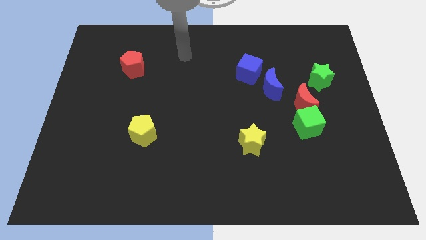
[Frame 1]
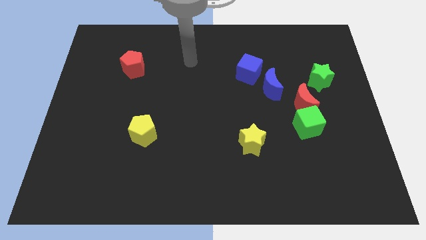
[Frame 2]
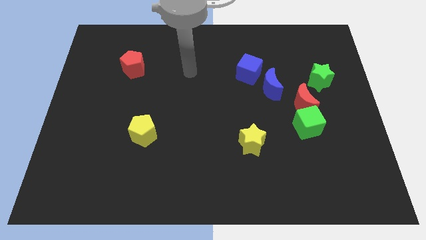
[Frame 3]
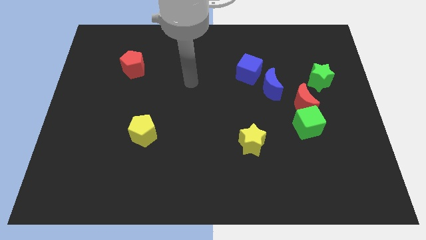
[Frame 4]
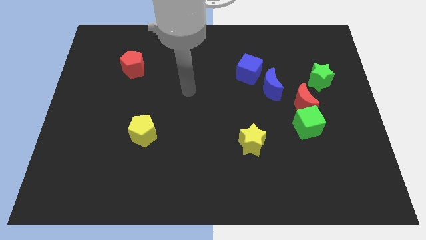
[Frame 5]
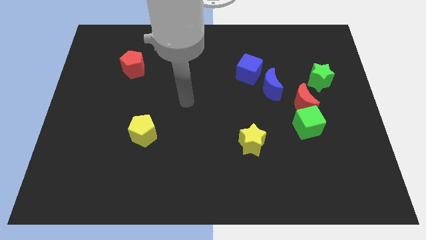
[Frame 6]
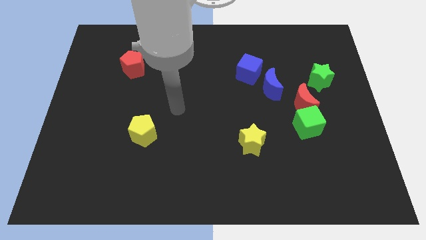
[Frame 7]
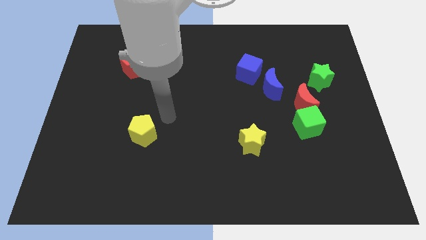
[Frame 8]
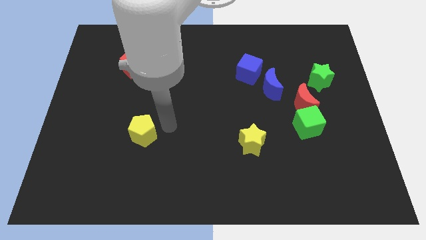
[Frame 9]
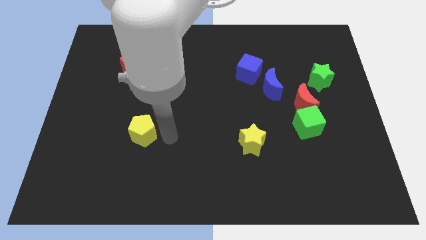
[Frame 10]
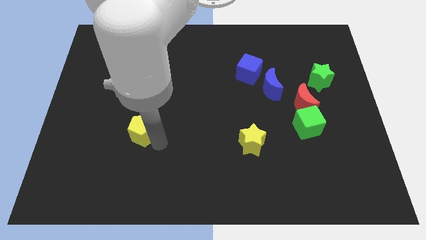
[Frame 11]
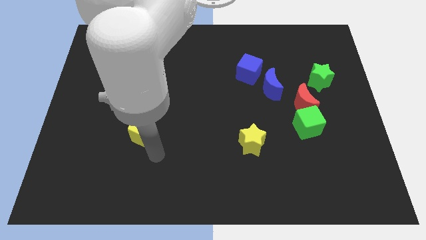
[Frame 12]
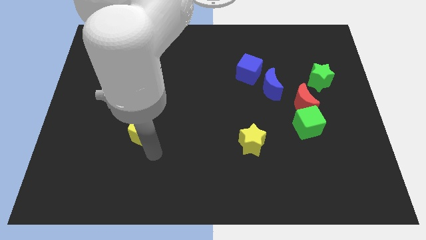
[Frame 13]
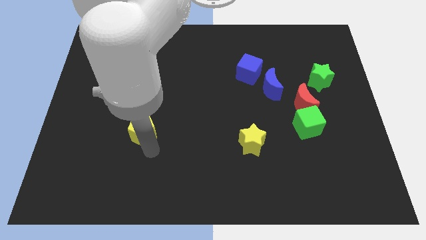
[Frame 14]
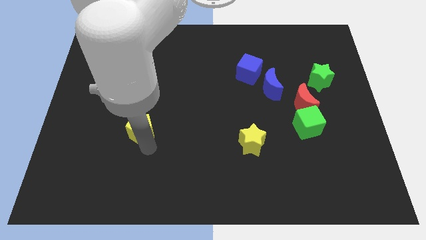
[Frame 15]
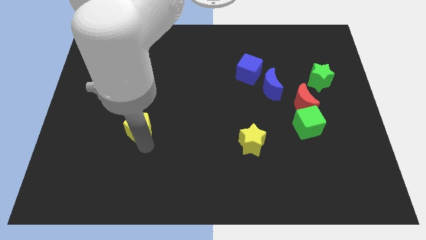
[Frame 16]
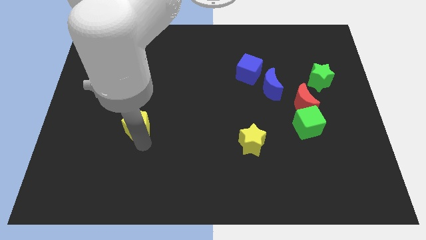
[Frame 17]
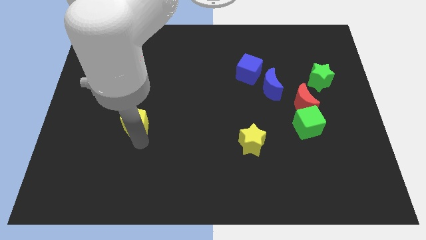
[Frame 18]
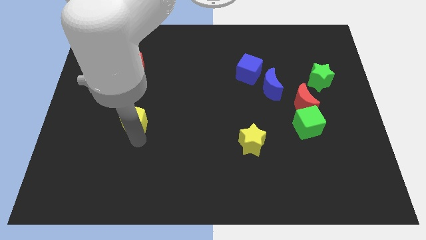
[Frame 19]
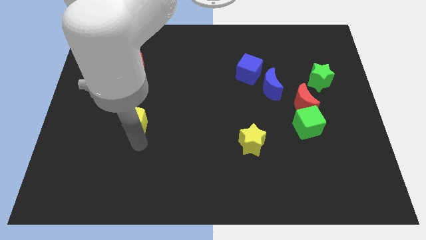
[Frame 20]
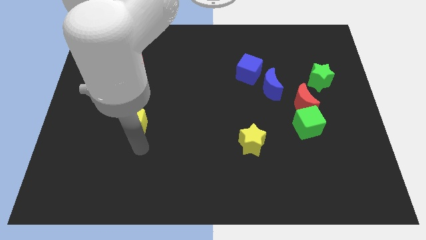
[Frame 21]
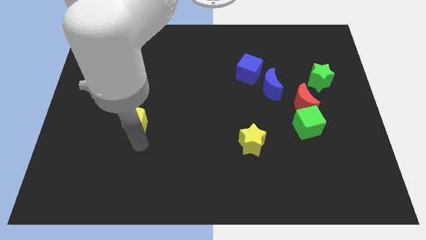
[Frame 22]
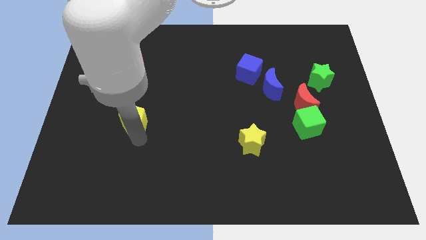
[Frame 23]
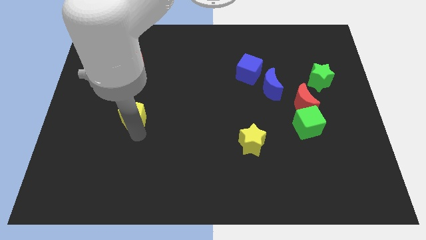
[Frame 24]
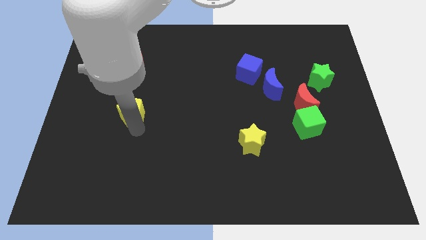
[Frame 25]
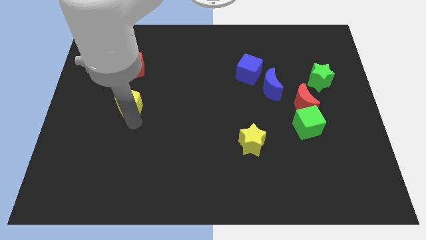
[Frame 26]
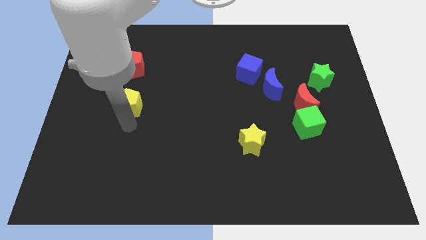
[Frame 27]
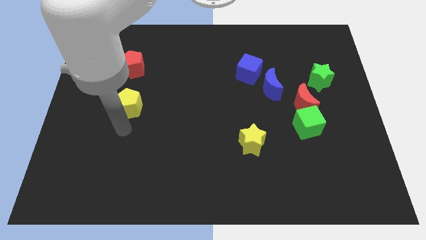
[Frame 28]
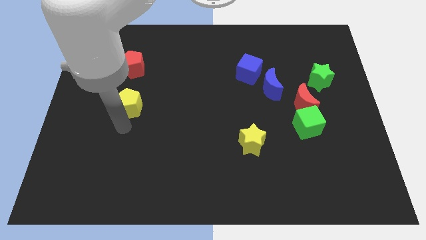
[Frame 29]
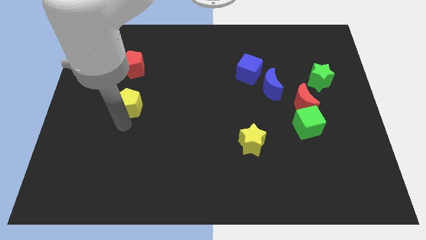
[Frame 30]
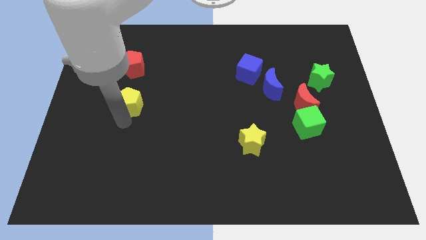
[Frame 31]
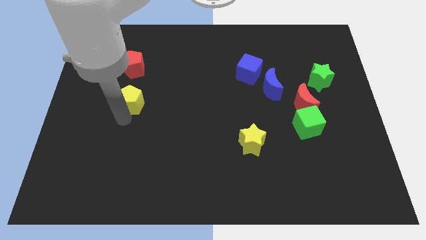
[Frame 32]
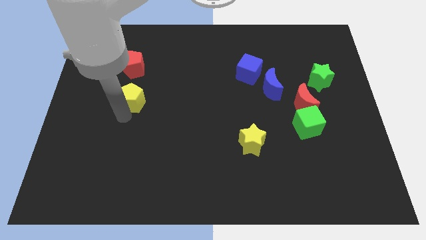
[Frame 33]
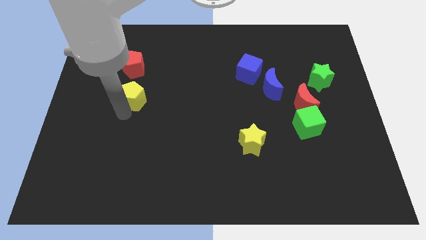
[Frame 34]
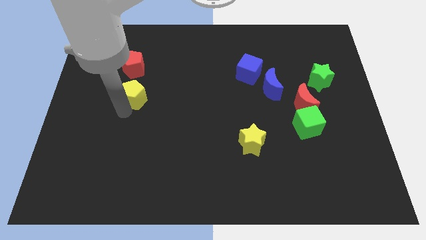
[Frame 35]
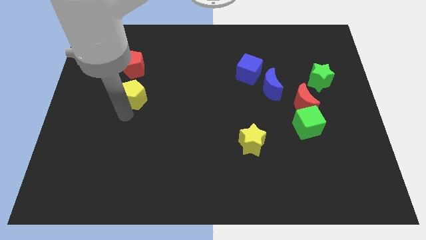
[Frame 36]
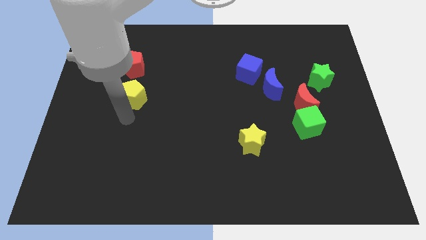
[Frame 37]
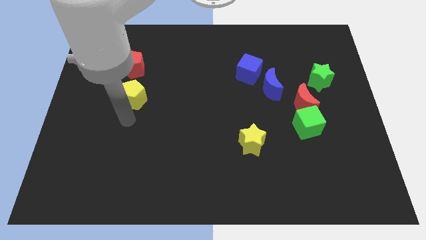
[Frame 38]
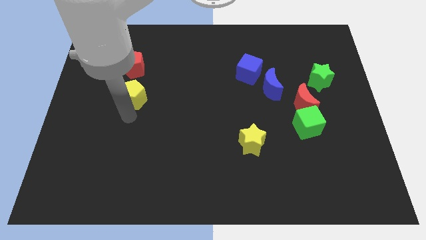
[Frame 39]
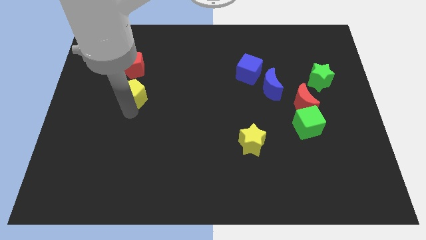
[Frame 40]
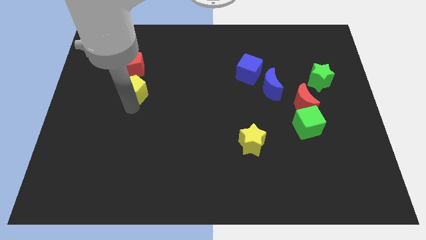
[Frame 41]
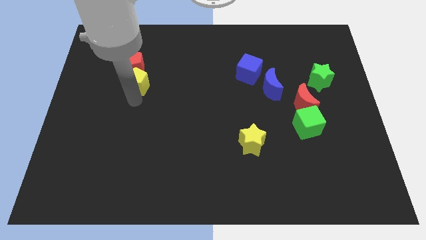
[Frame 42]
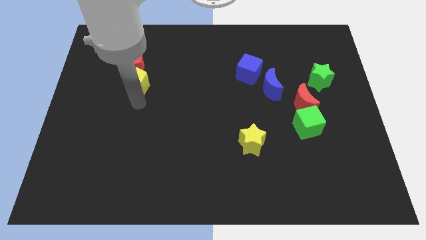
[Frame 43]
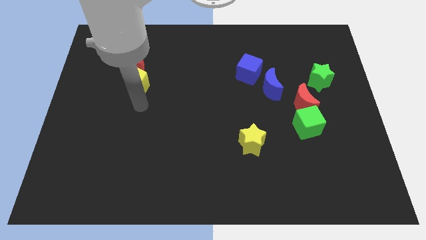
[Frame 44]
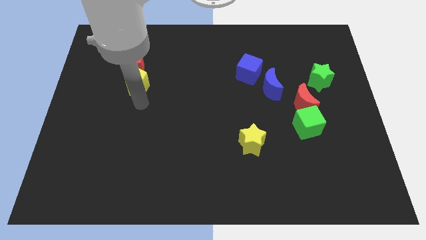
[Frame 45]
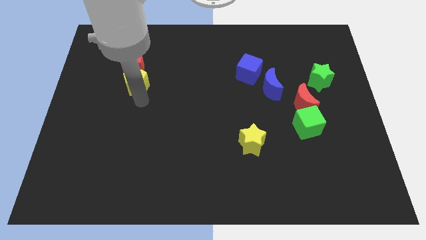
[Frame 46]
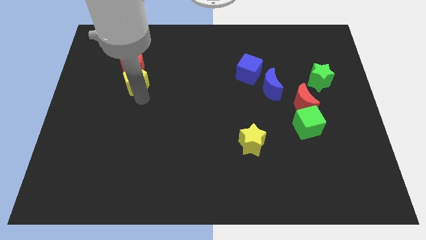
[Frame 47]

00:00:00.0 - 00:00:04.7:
slide the yellow pentagon close to the red pentagon

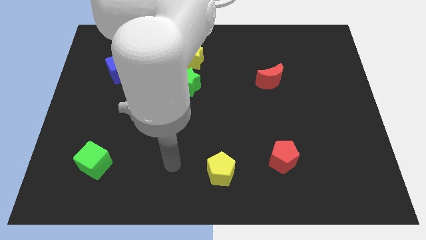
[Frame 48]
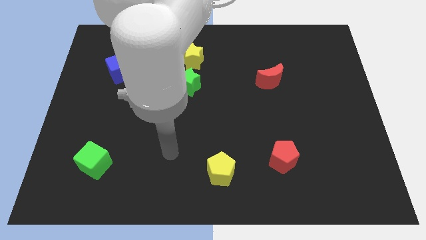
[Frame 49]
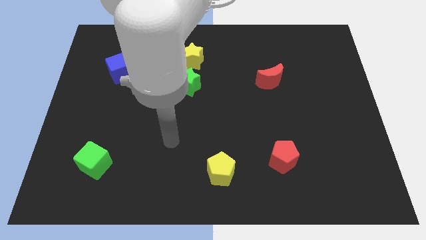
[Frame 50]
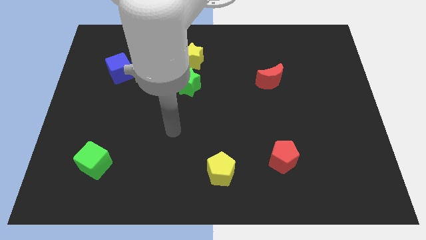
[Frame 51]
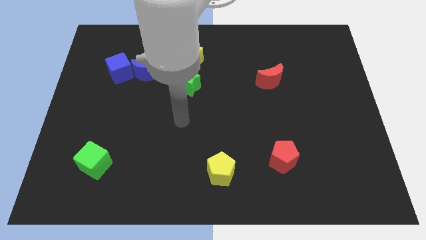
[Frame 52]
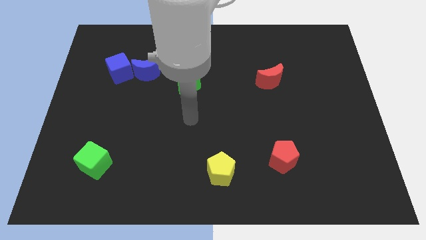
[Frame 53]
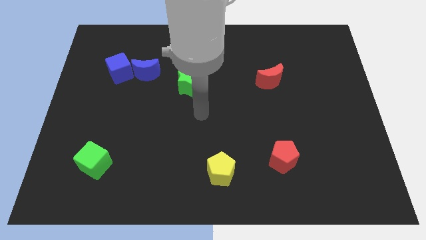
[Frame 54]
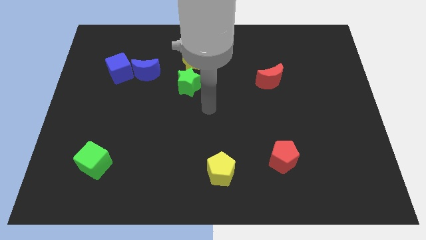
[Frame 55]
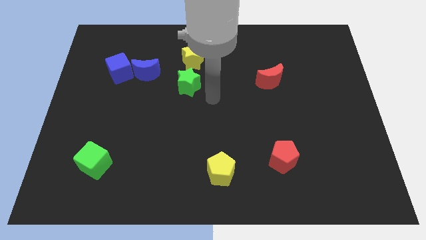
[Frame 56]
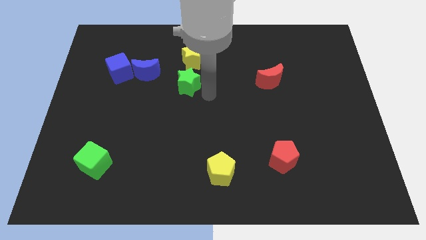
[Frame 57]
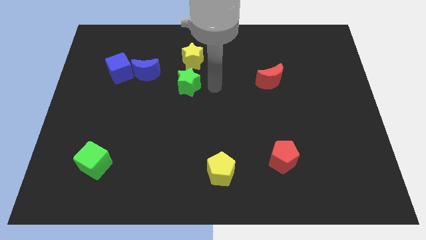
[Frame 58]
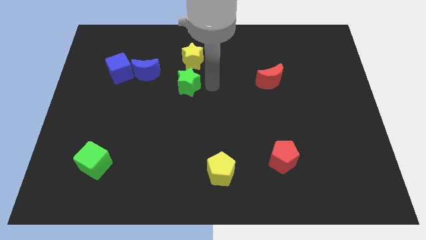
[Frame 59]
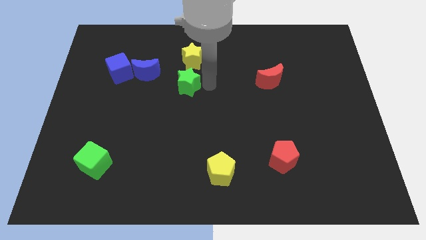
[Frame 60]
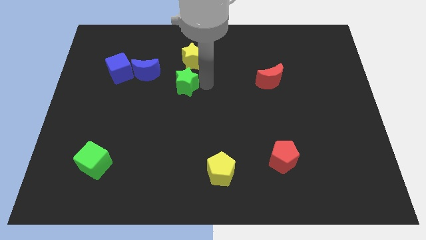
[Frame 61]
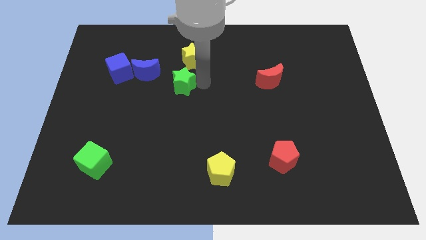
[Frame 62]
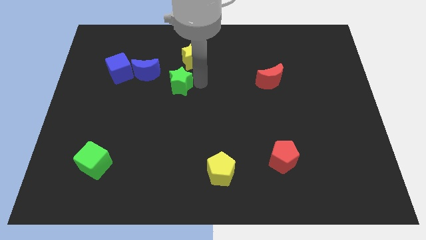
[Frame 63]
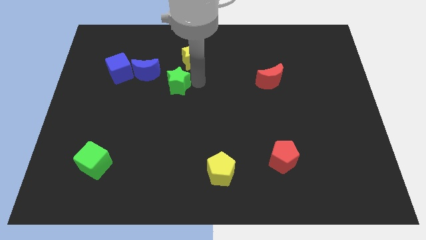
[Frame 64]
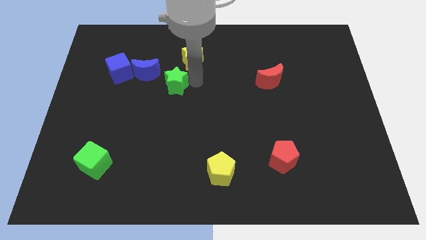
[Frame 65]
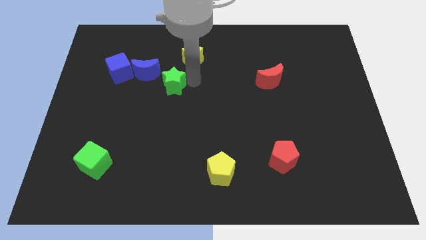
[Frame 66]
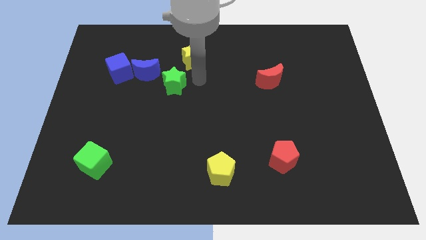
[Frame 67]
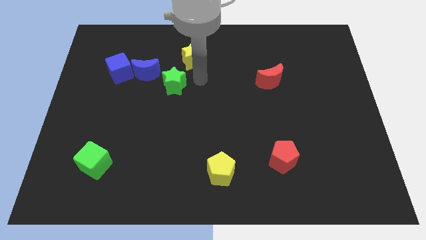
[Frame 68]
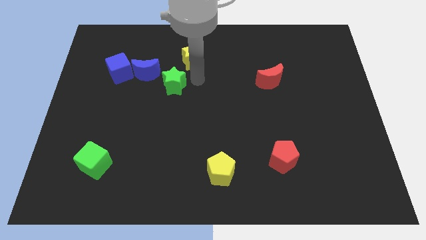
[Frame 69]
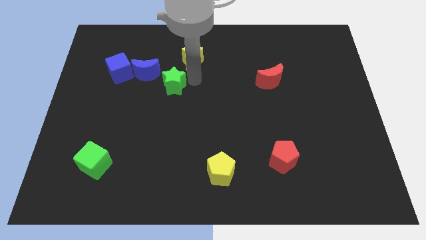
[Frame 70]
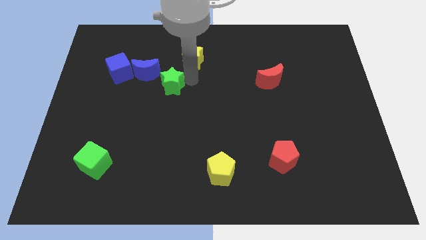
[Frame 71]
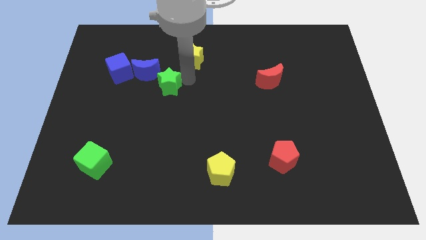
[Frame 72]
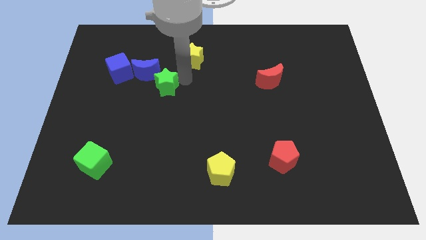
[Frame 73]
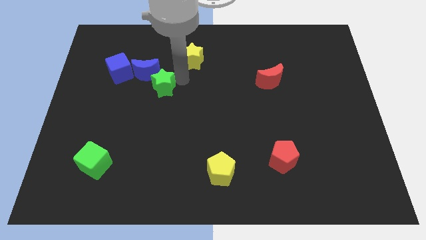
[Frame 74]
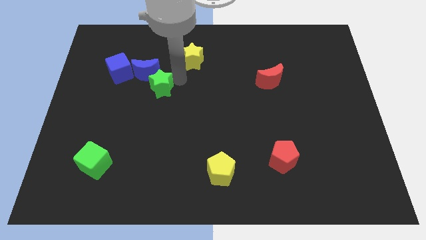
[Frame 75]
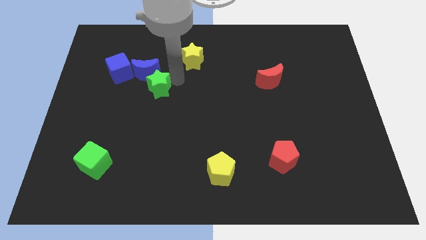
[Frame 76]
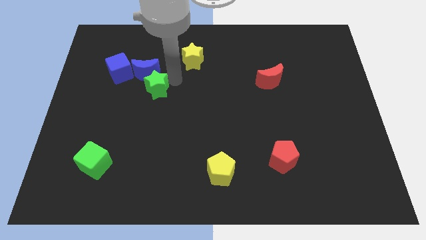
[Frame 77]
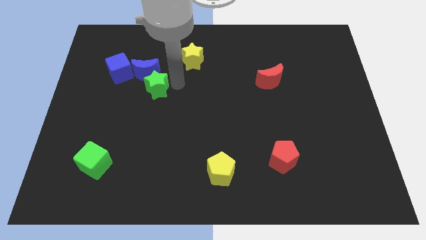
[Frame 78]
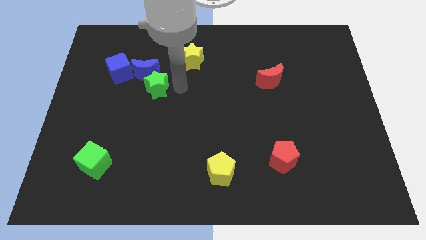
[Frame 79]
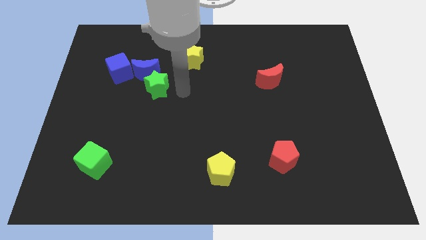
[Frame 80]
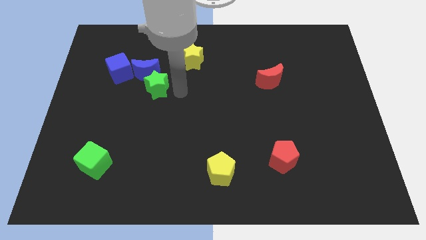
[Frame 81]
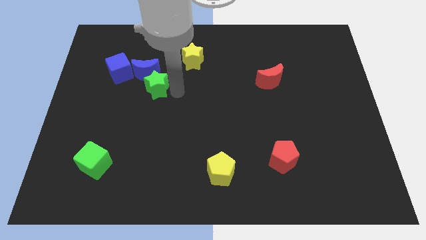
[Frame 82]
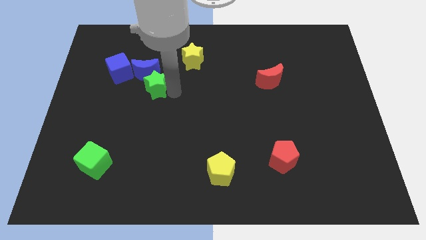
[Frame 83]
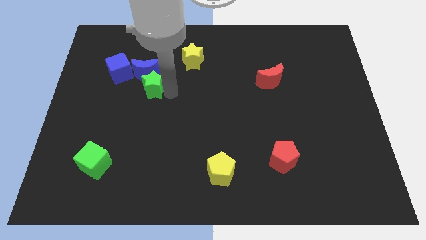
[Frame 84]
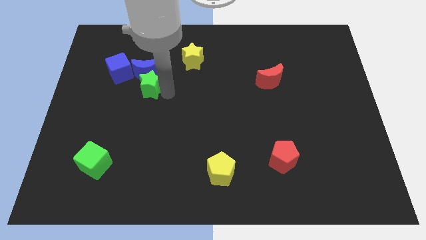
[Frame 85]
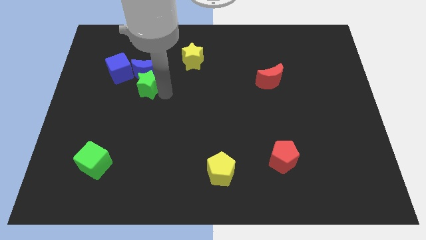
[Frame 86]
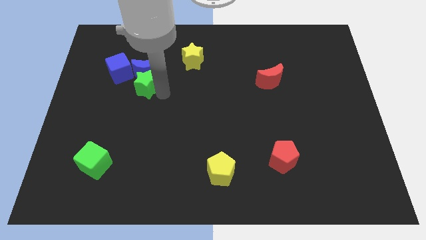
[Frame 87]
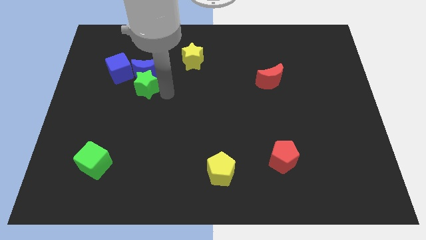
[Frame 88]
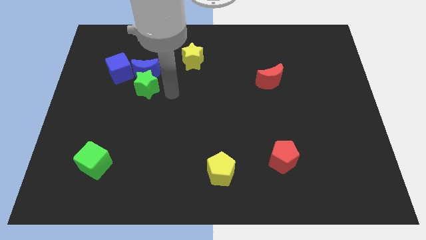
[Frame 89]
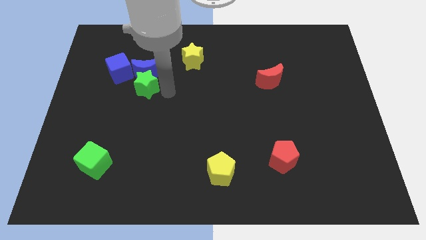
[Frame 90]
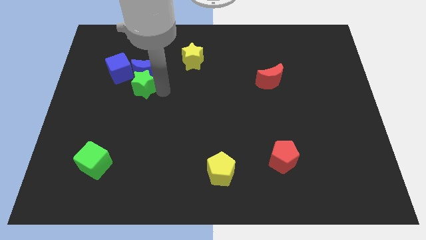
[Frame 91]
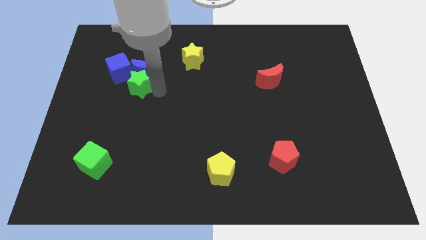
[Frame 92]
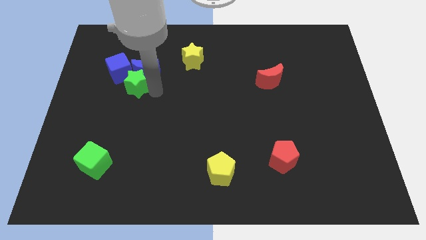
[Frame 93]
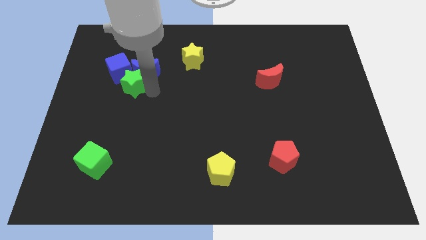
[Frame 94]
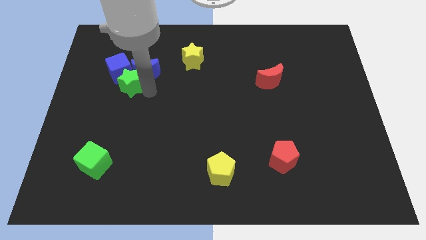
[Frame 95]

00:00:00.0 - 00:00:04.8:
slide the green star to the blue cube
